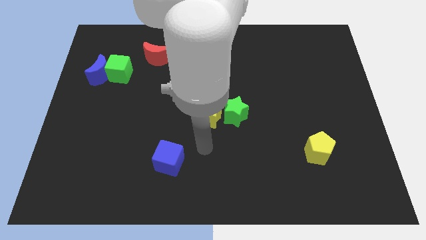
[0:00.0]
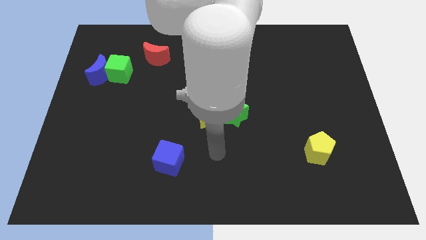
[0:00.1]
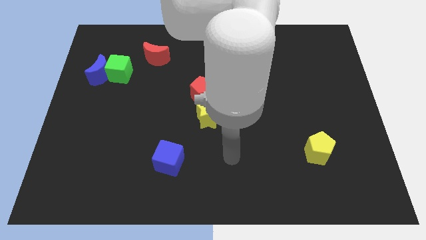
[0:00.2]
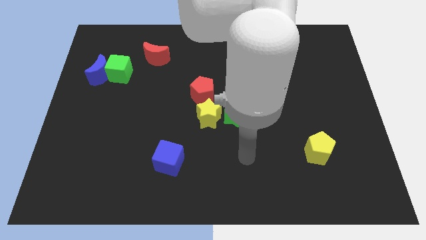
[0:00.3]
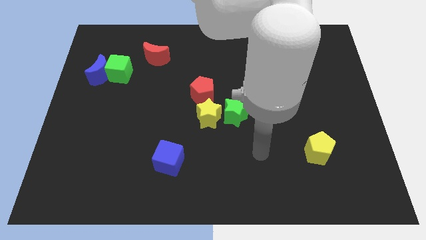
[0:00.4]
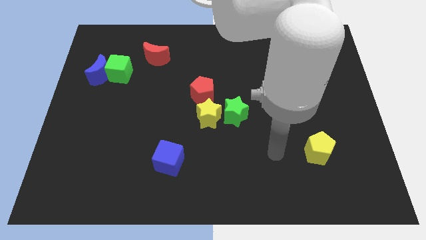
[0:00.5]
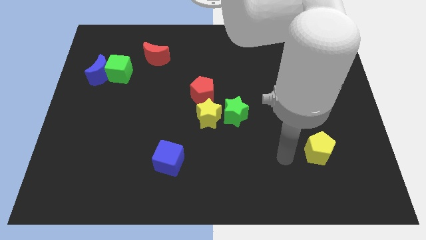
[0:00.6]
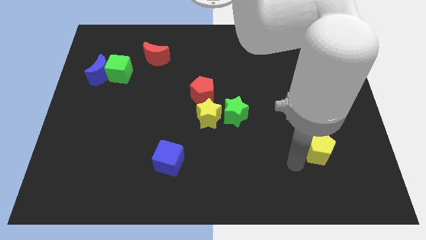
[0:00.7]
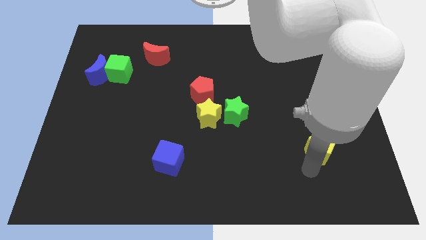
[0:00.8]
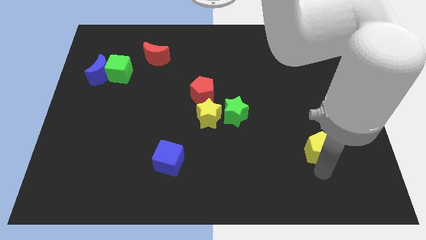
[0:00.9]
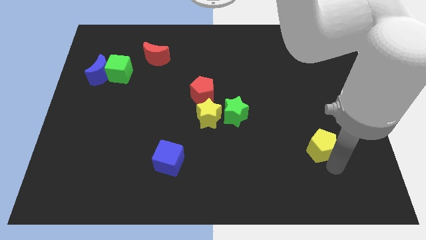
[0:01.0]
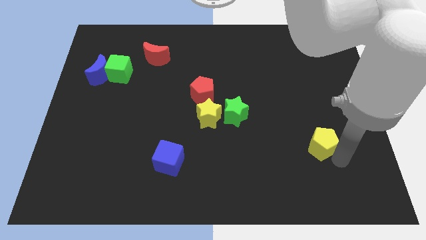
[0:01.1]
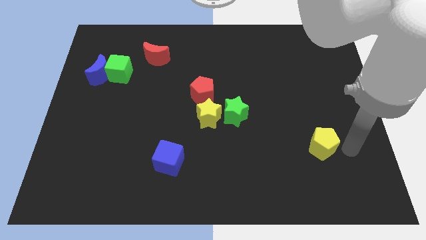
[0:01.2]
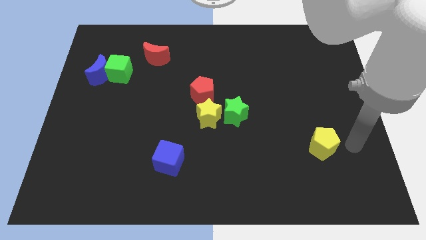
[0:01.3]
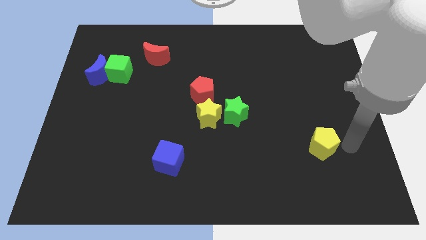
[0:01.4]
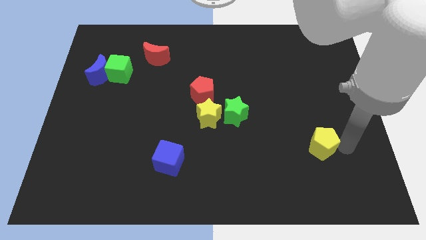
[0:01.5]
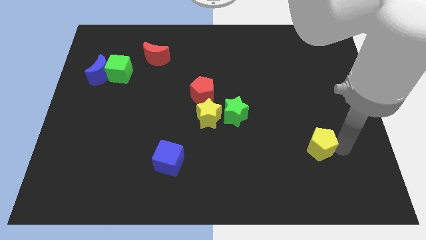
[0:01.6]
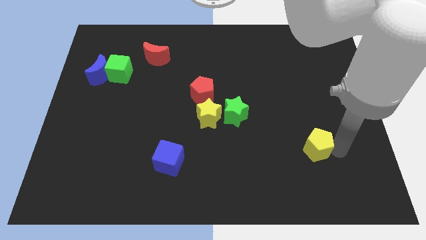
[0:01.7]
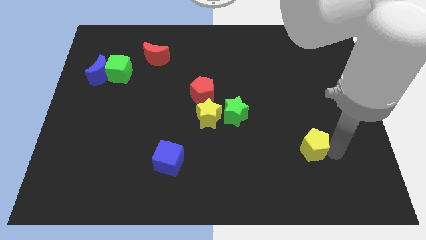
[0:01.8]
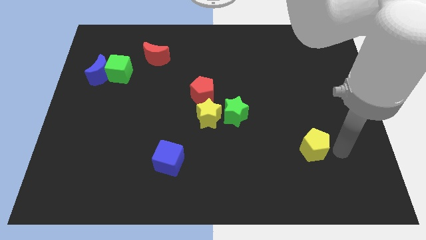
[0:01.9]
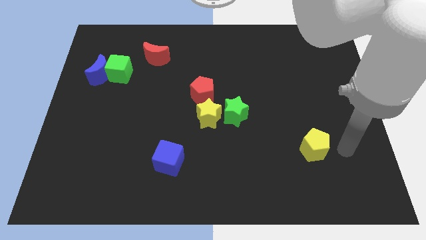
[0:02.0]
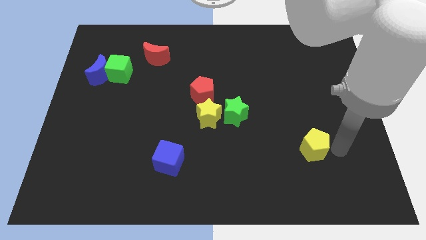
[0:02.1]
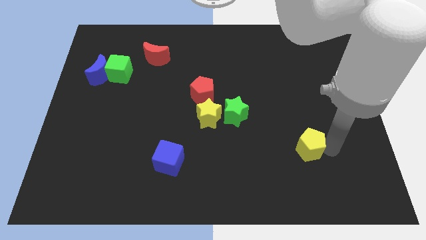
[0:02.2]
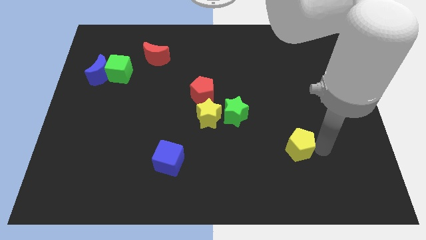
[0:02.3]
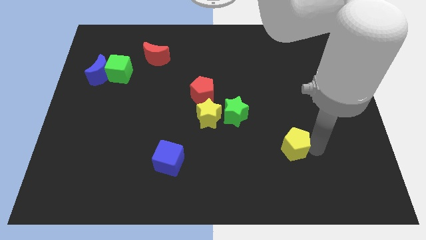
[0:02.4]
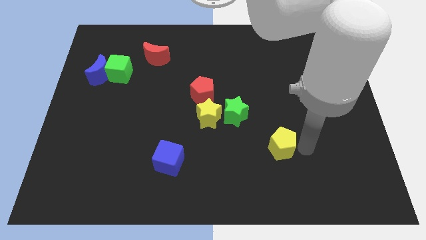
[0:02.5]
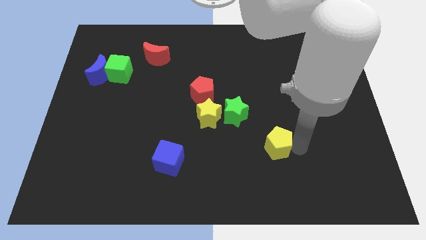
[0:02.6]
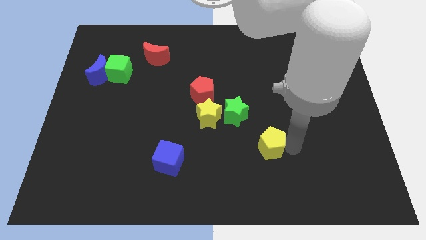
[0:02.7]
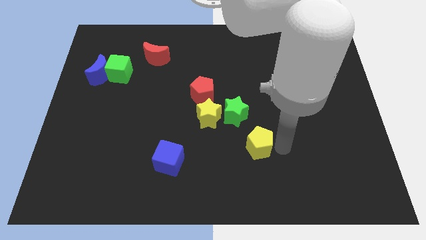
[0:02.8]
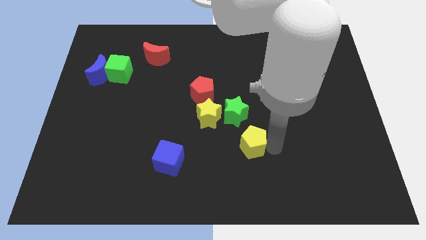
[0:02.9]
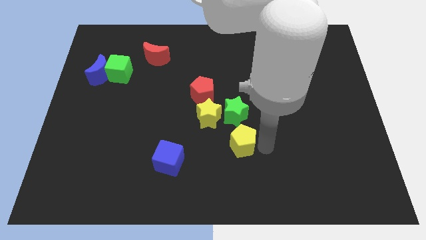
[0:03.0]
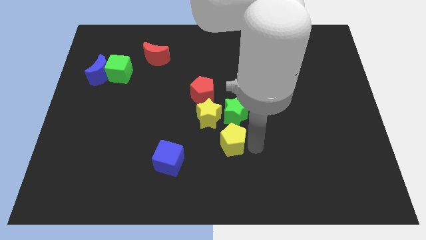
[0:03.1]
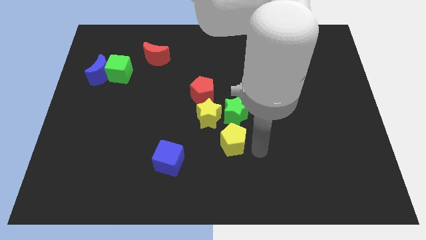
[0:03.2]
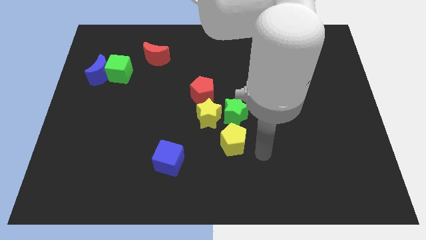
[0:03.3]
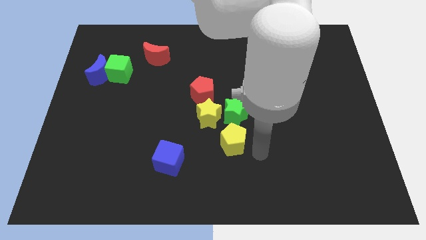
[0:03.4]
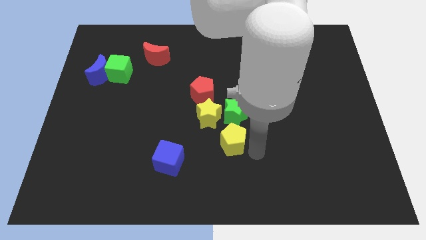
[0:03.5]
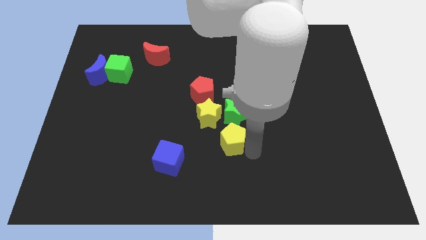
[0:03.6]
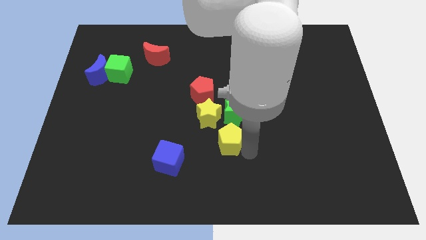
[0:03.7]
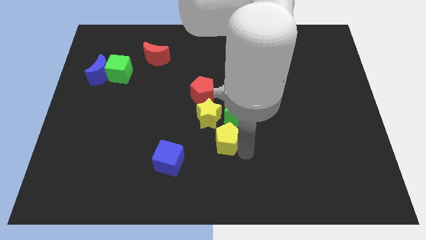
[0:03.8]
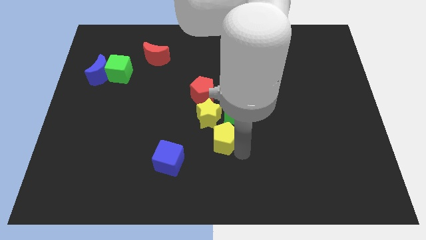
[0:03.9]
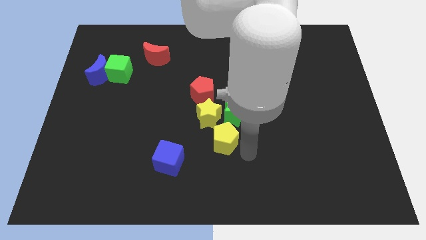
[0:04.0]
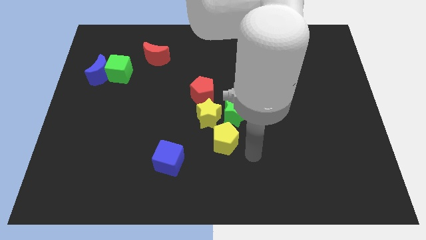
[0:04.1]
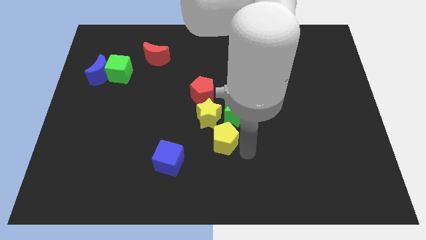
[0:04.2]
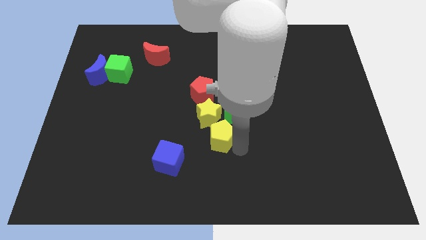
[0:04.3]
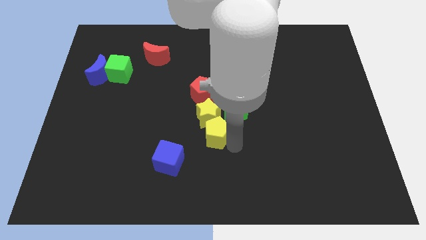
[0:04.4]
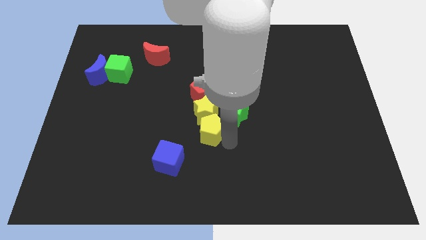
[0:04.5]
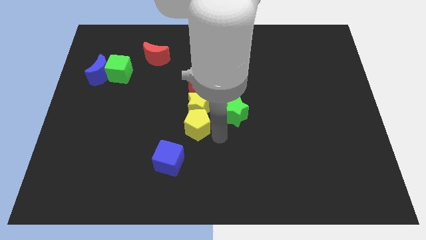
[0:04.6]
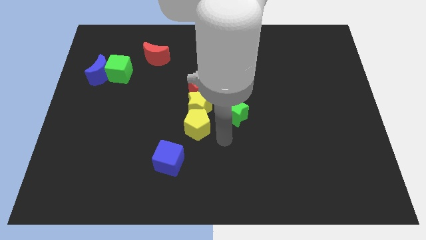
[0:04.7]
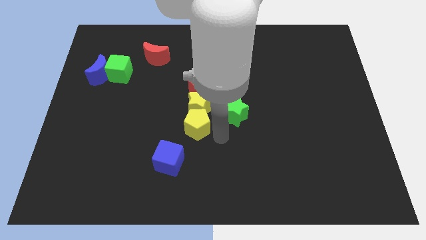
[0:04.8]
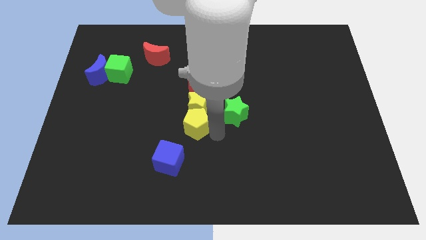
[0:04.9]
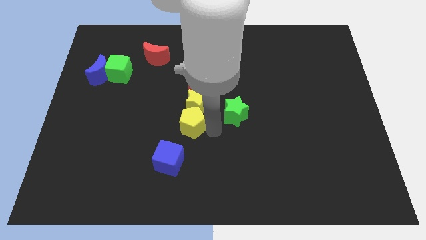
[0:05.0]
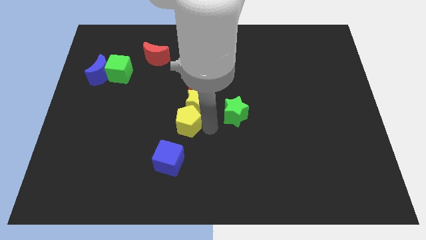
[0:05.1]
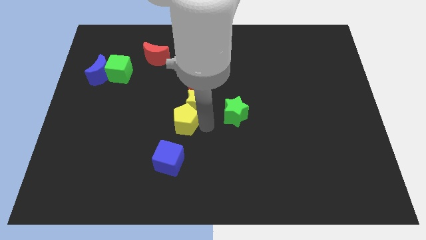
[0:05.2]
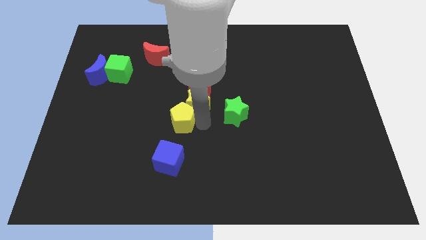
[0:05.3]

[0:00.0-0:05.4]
slide the yellow pentagon to the left side of the yellow star
